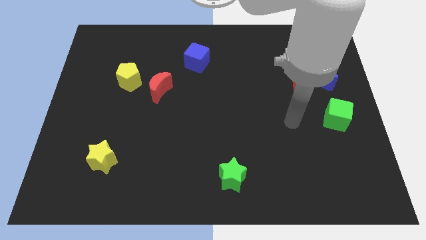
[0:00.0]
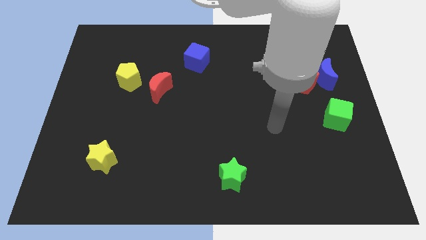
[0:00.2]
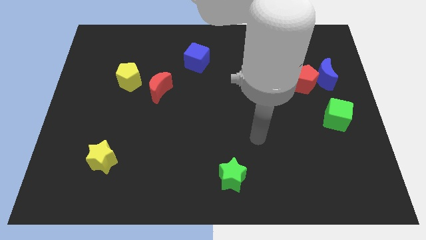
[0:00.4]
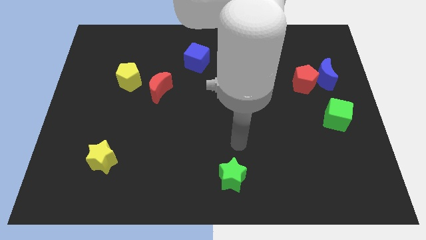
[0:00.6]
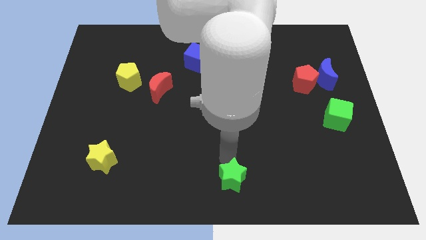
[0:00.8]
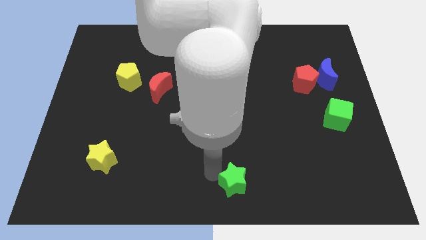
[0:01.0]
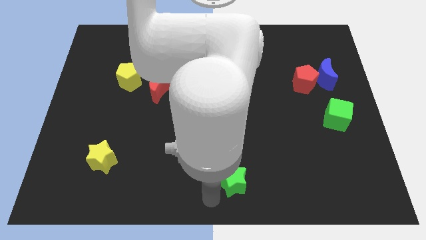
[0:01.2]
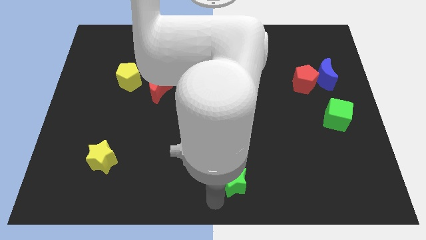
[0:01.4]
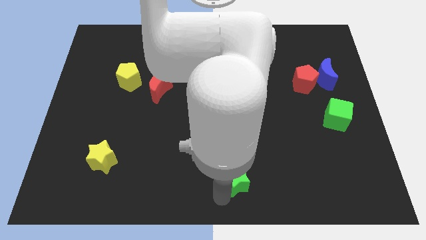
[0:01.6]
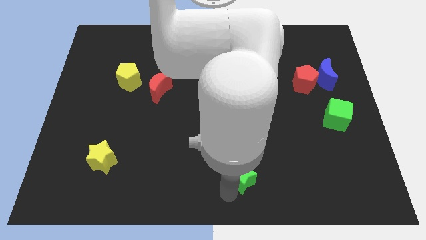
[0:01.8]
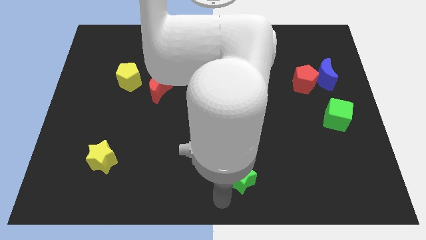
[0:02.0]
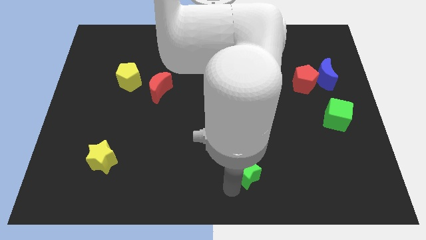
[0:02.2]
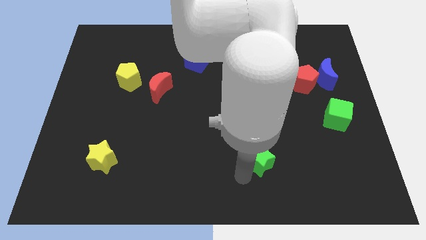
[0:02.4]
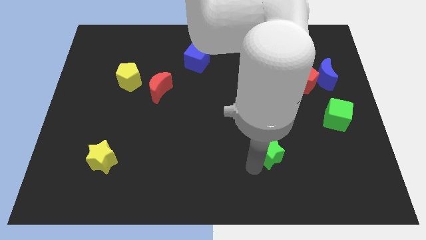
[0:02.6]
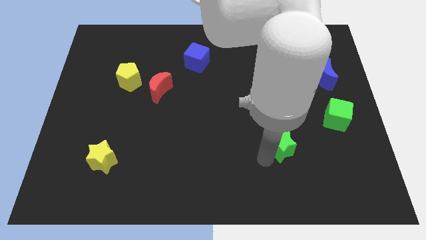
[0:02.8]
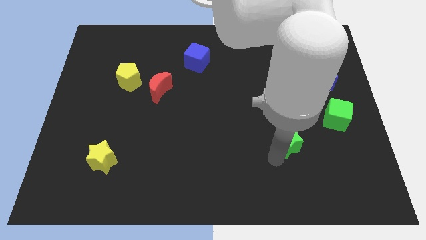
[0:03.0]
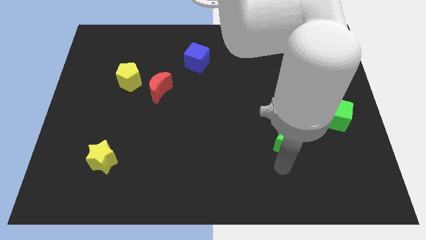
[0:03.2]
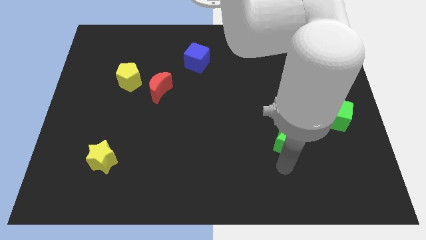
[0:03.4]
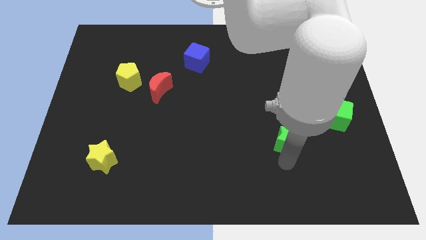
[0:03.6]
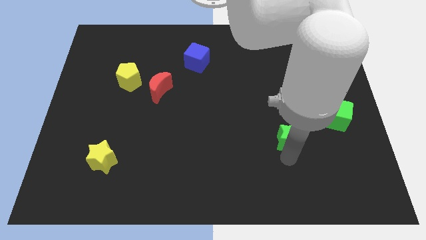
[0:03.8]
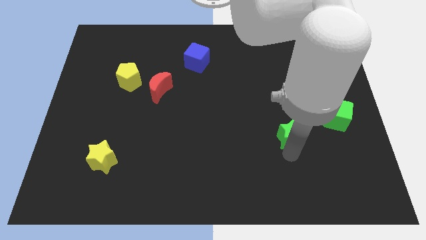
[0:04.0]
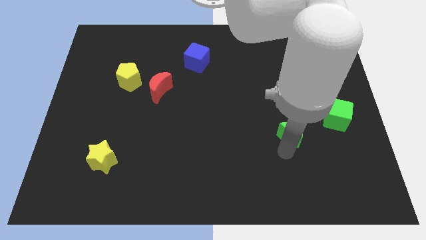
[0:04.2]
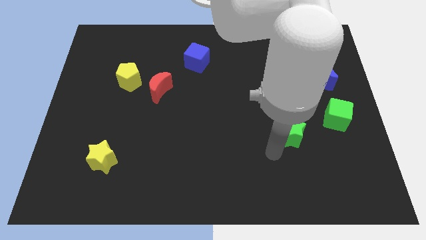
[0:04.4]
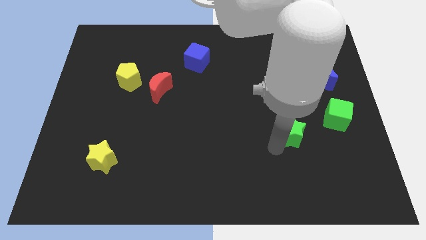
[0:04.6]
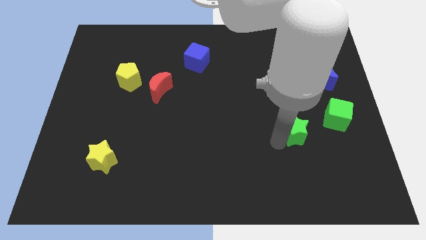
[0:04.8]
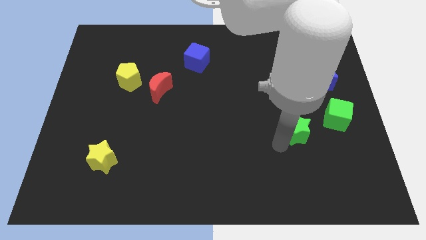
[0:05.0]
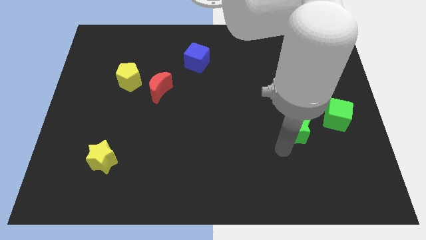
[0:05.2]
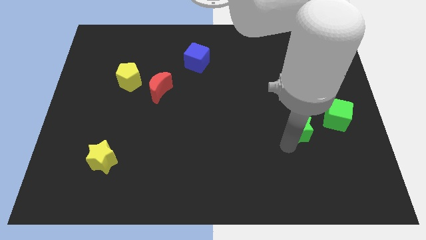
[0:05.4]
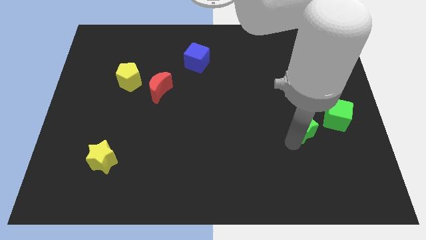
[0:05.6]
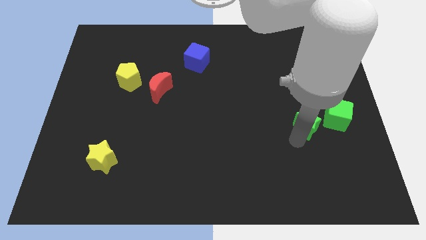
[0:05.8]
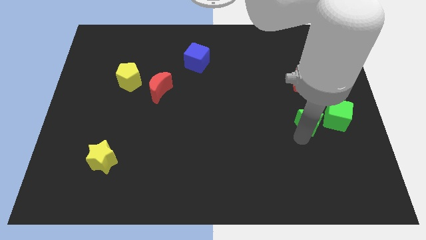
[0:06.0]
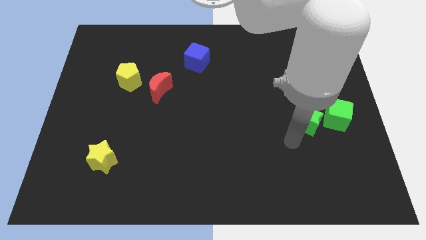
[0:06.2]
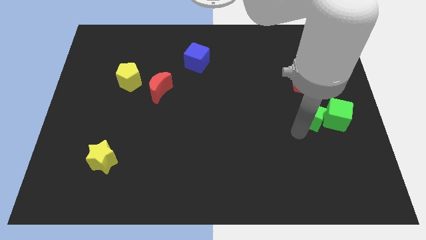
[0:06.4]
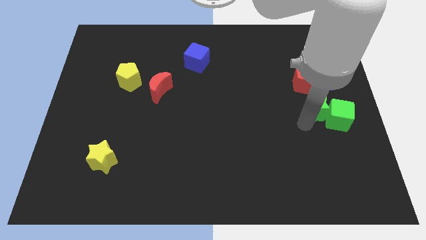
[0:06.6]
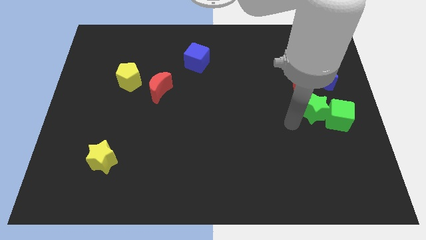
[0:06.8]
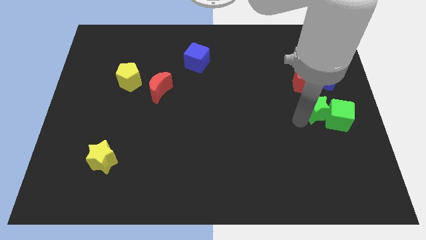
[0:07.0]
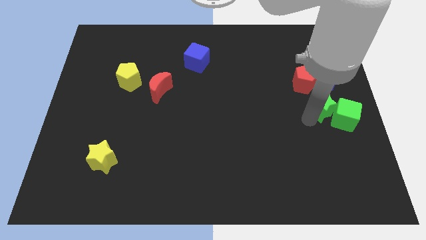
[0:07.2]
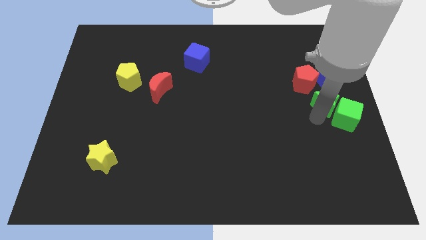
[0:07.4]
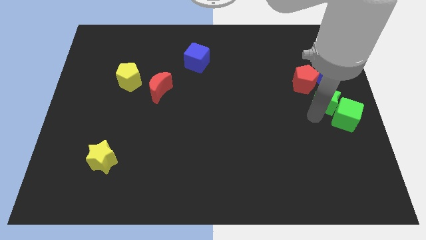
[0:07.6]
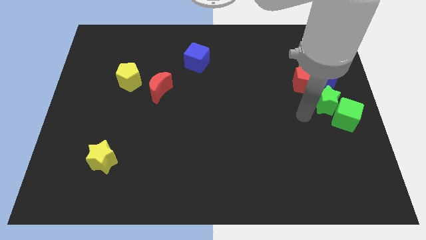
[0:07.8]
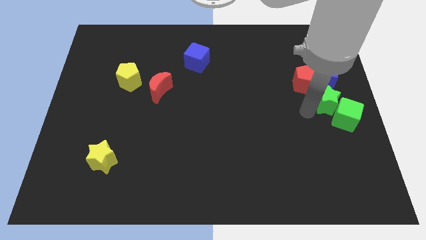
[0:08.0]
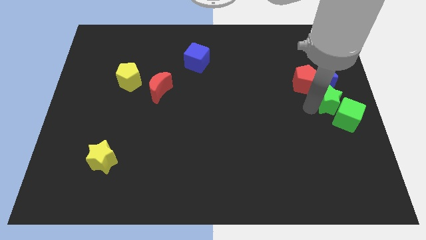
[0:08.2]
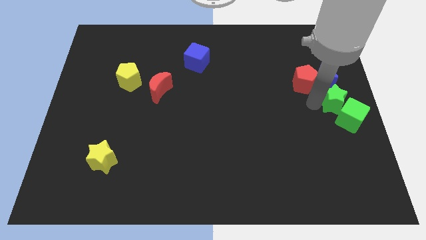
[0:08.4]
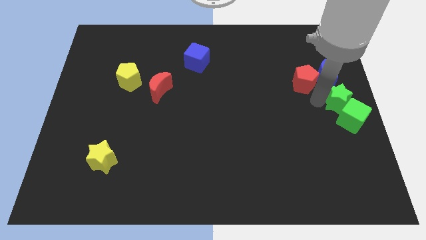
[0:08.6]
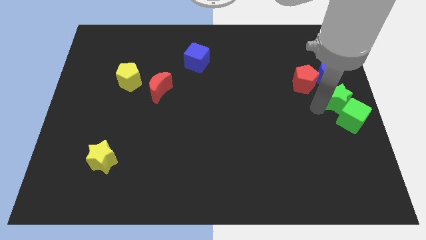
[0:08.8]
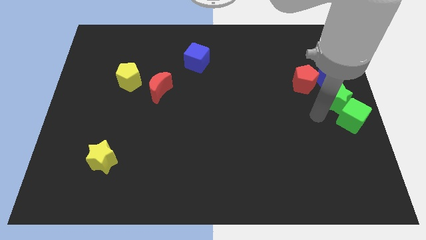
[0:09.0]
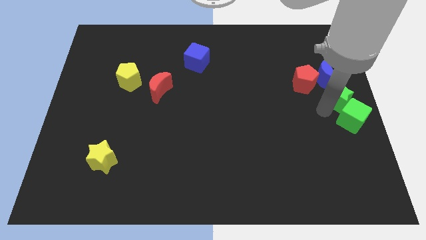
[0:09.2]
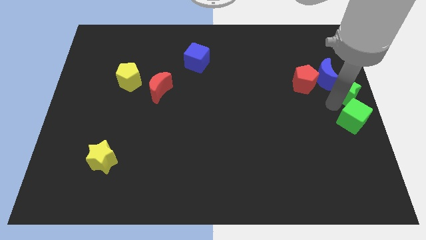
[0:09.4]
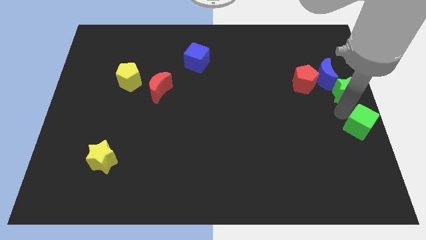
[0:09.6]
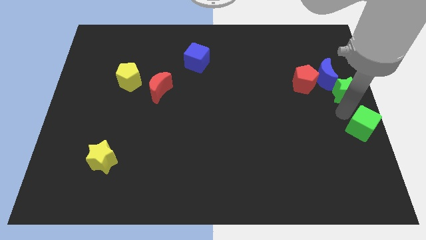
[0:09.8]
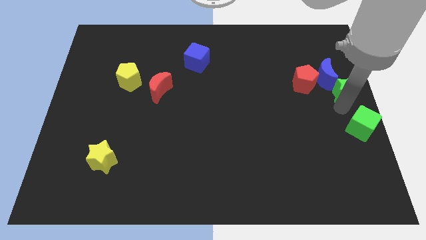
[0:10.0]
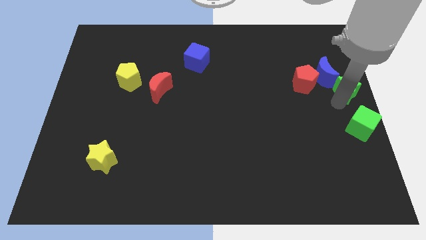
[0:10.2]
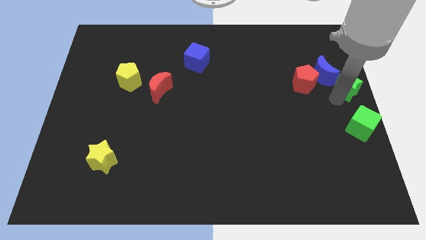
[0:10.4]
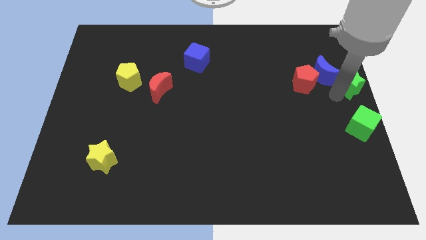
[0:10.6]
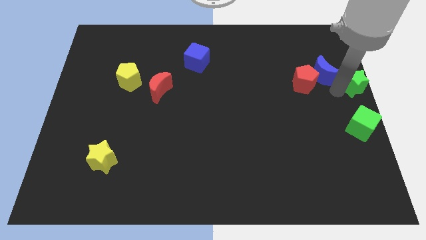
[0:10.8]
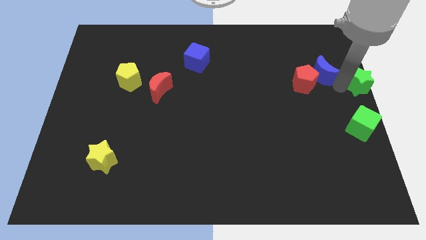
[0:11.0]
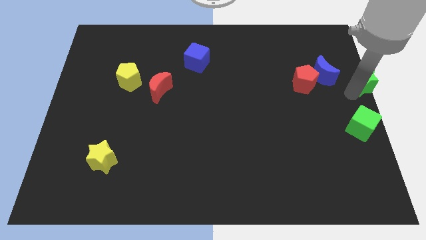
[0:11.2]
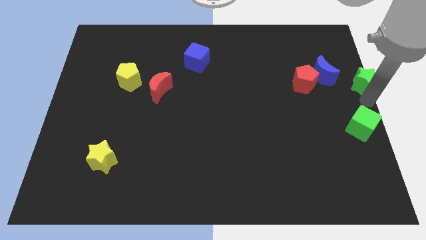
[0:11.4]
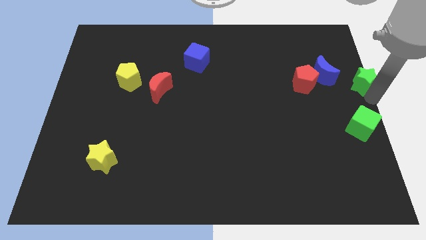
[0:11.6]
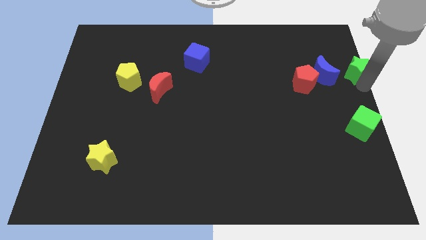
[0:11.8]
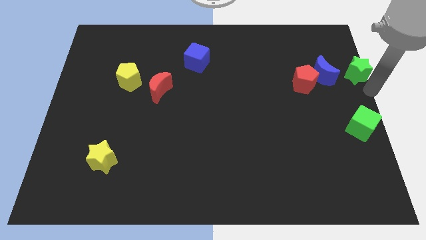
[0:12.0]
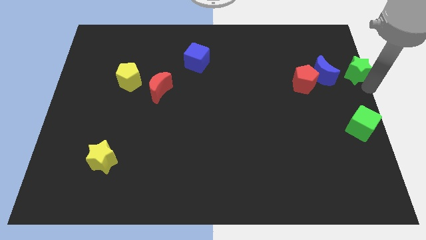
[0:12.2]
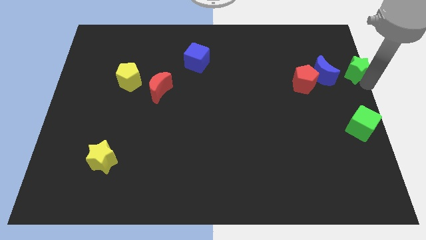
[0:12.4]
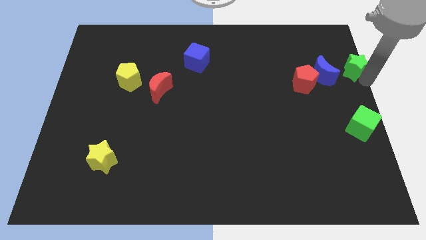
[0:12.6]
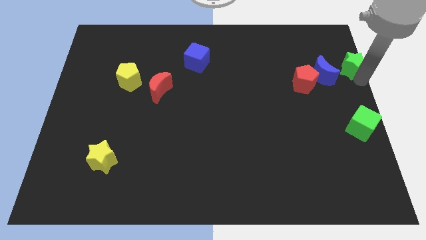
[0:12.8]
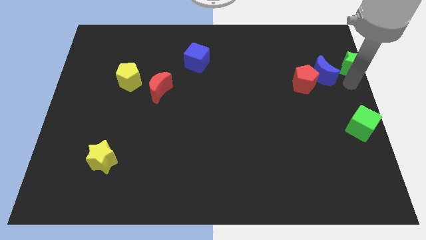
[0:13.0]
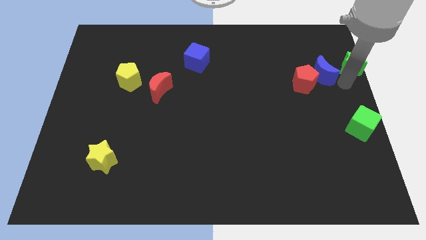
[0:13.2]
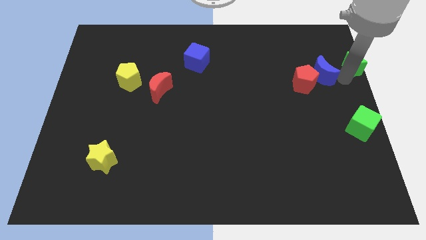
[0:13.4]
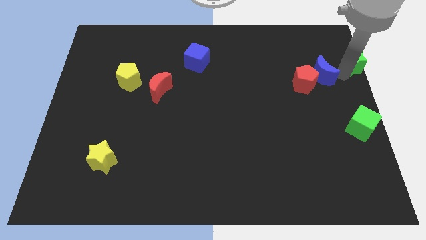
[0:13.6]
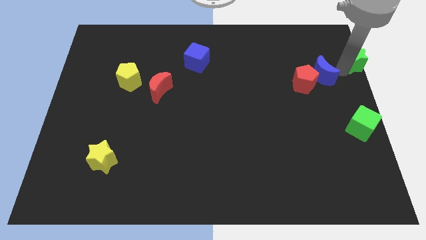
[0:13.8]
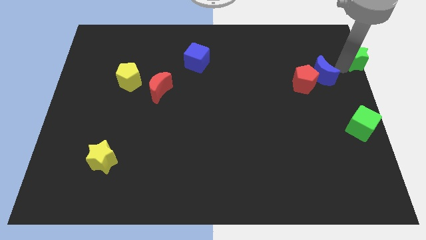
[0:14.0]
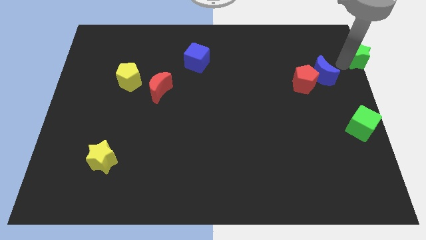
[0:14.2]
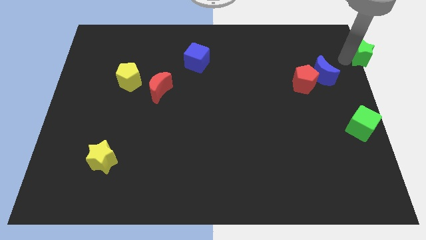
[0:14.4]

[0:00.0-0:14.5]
put the green star to the top right
